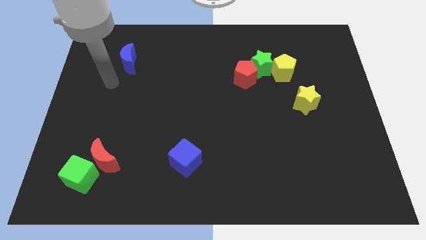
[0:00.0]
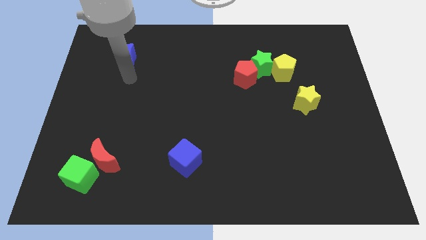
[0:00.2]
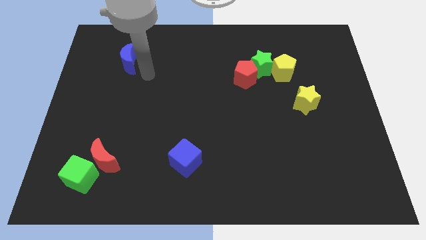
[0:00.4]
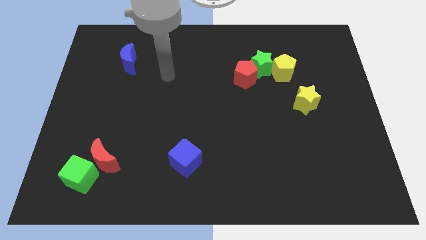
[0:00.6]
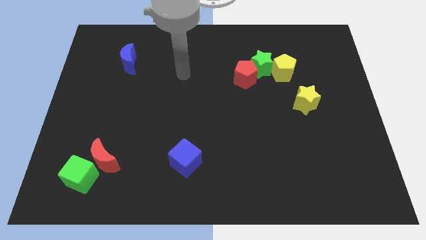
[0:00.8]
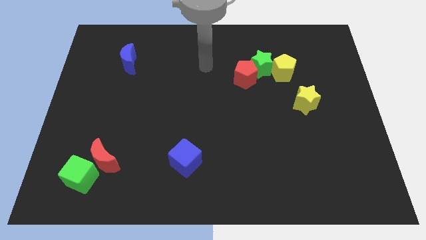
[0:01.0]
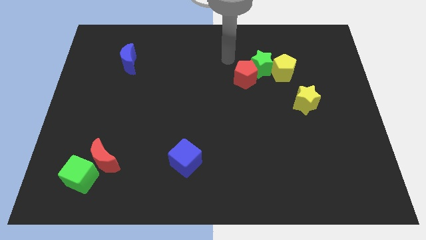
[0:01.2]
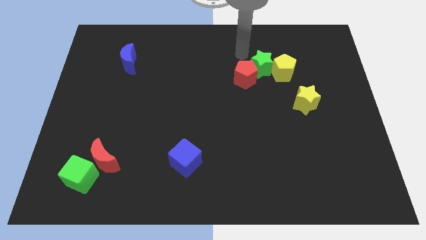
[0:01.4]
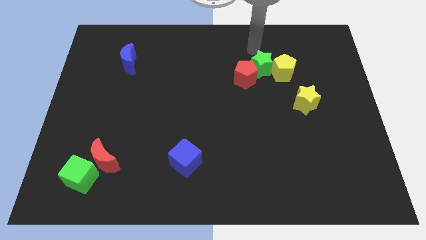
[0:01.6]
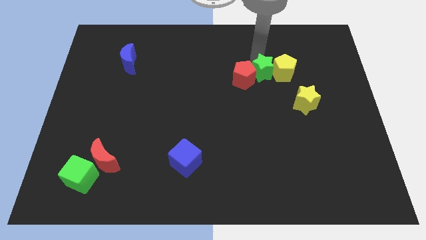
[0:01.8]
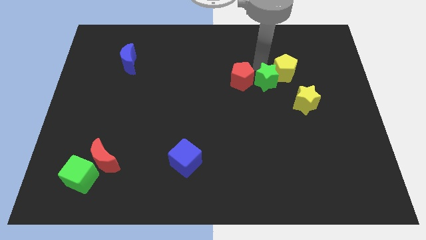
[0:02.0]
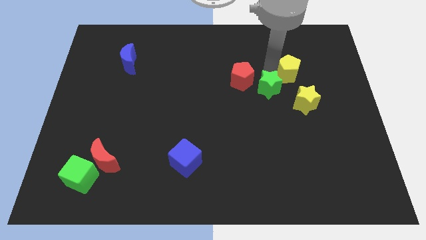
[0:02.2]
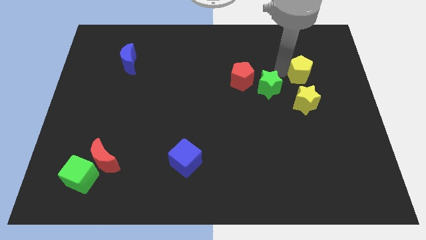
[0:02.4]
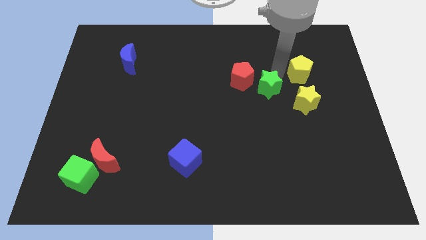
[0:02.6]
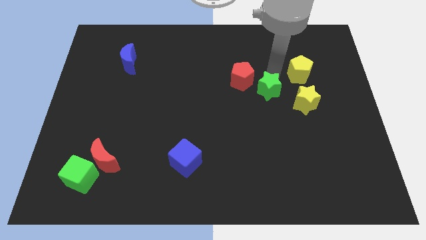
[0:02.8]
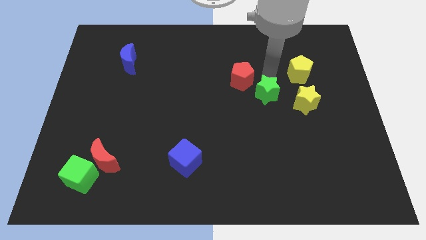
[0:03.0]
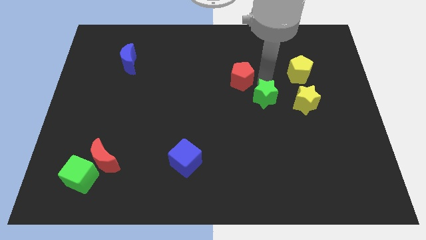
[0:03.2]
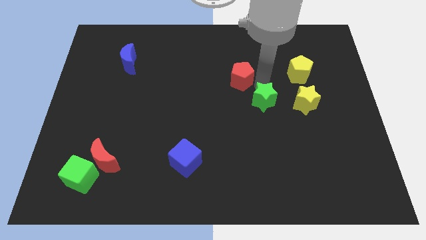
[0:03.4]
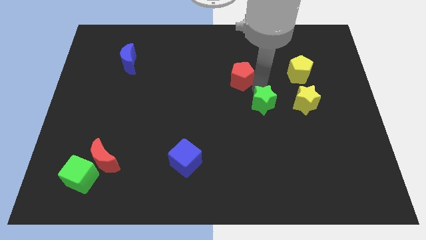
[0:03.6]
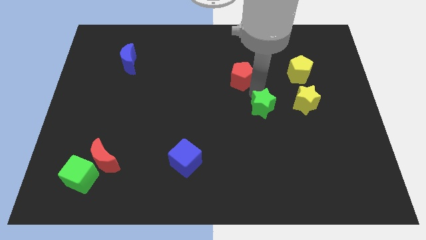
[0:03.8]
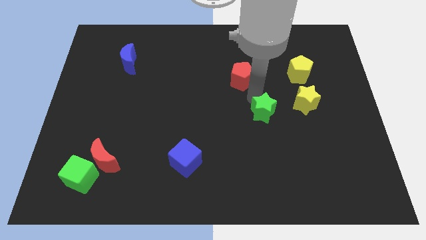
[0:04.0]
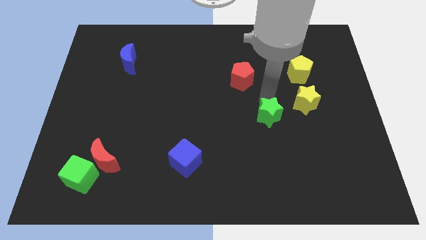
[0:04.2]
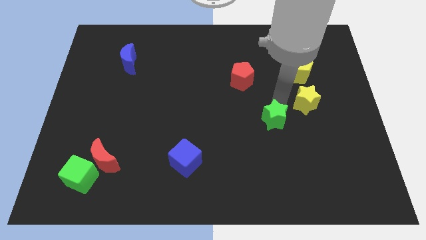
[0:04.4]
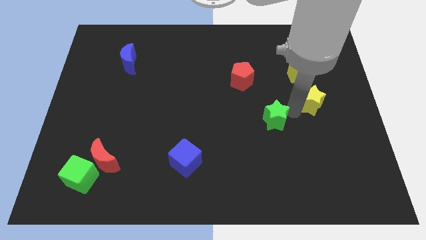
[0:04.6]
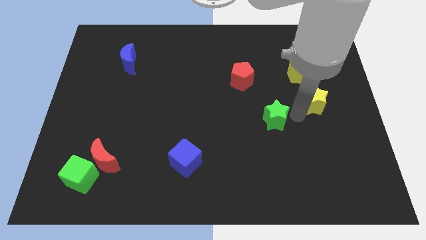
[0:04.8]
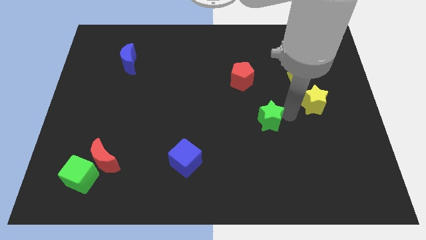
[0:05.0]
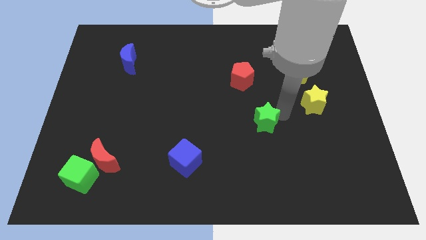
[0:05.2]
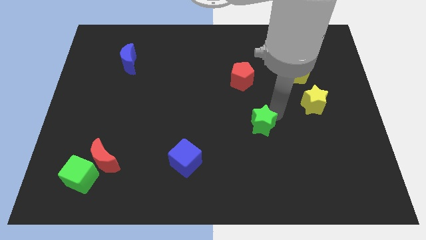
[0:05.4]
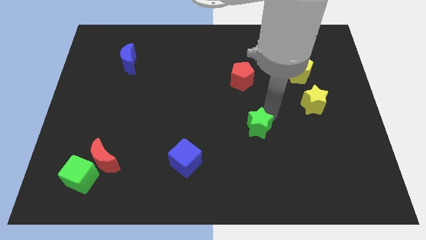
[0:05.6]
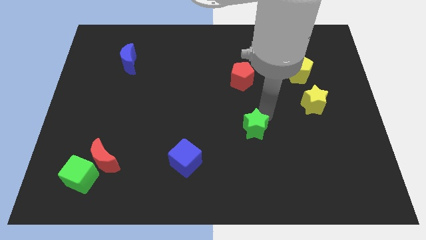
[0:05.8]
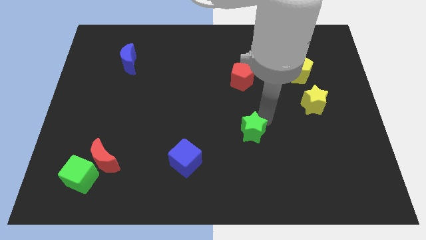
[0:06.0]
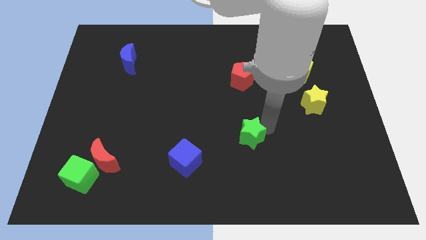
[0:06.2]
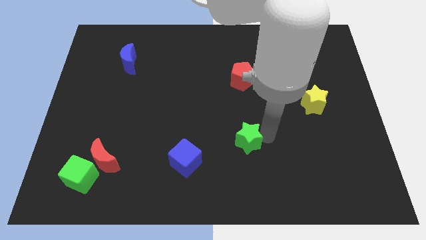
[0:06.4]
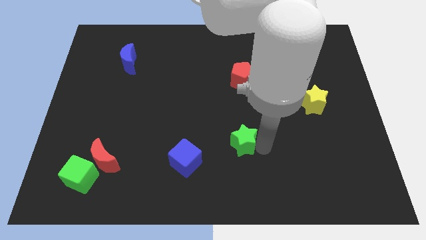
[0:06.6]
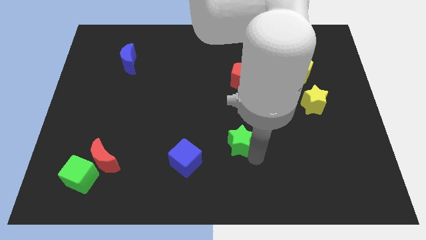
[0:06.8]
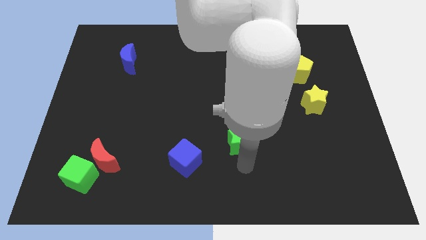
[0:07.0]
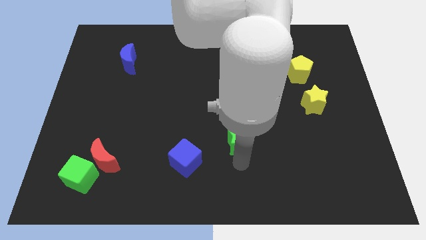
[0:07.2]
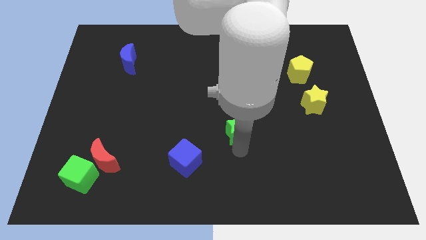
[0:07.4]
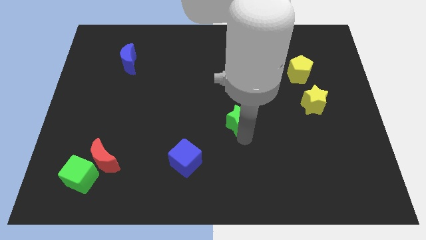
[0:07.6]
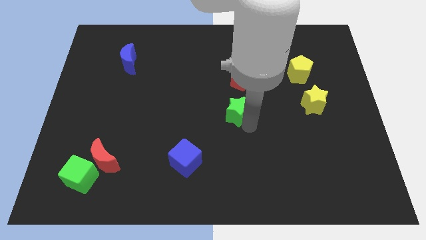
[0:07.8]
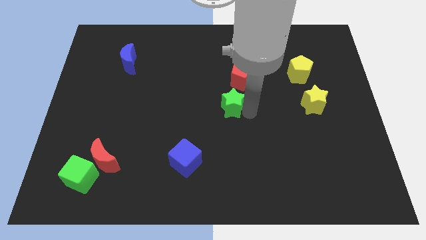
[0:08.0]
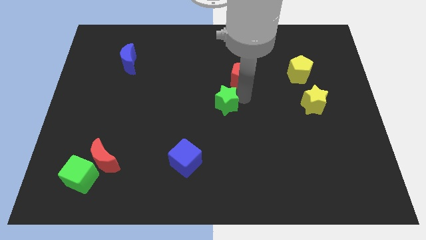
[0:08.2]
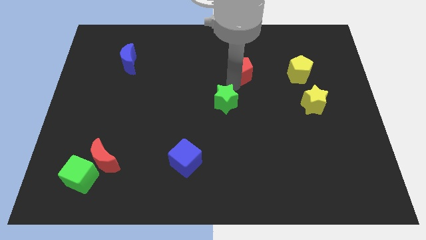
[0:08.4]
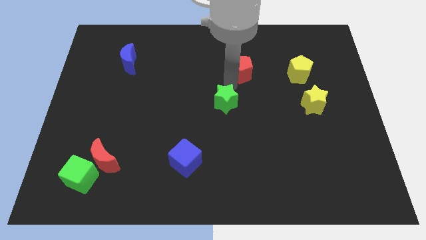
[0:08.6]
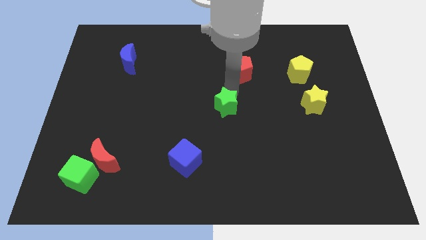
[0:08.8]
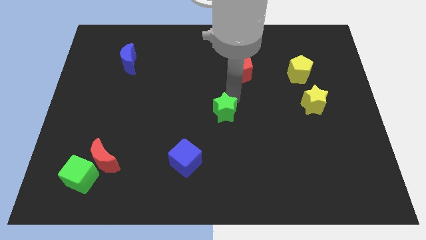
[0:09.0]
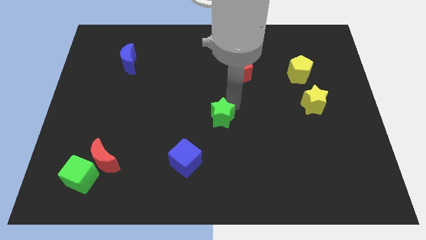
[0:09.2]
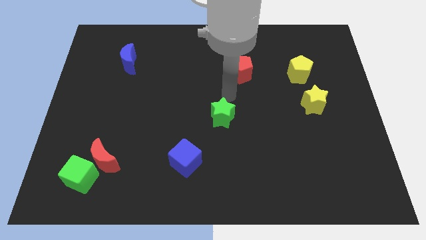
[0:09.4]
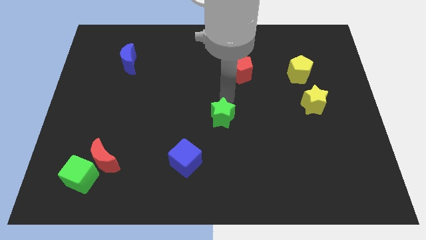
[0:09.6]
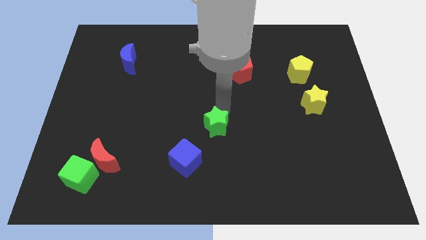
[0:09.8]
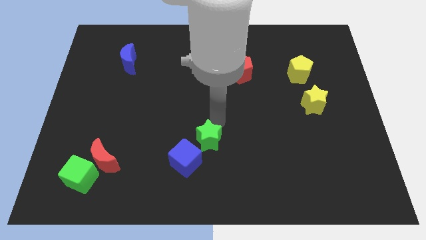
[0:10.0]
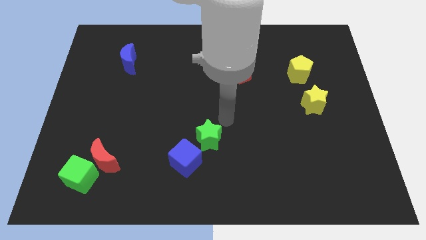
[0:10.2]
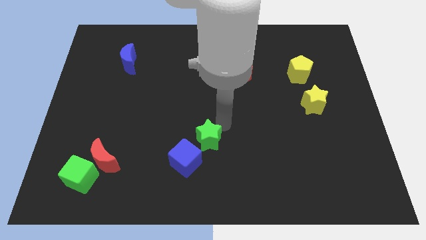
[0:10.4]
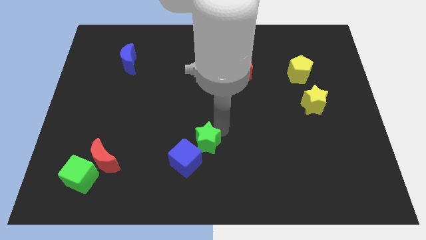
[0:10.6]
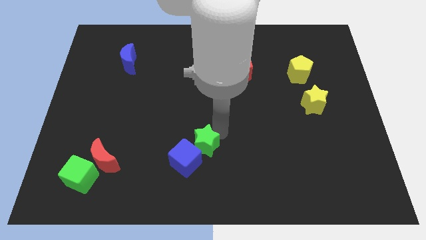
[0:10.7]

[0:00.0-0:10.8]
put the green star to the blue cube

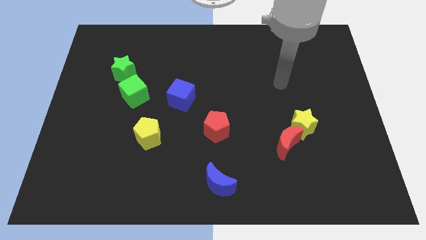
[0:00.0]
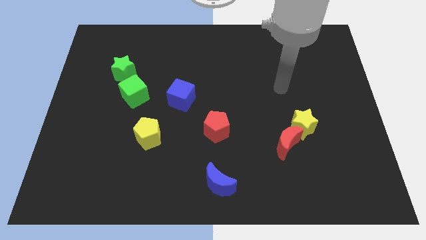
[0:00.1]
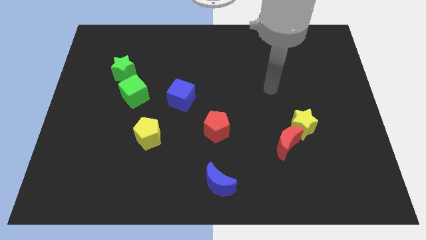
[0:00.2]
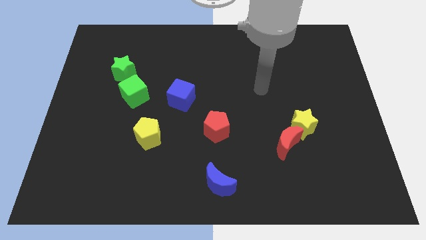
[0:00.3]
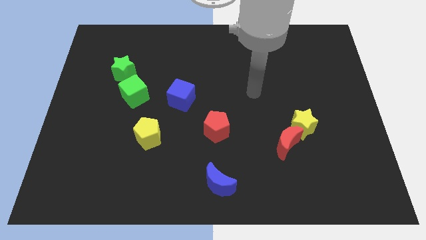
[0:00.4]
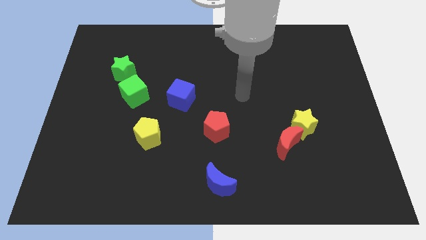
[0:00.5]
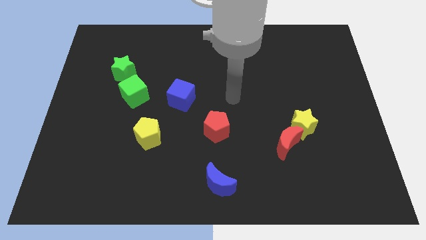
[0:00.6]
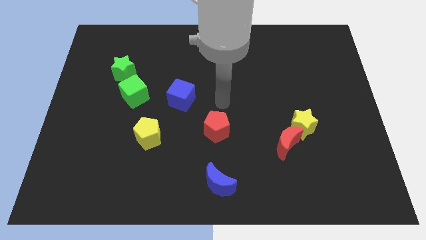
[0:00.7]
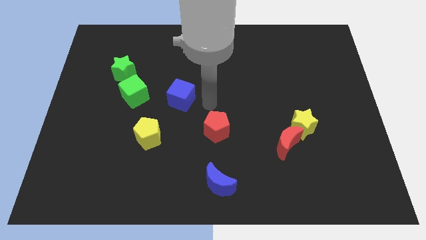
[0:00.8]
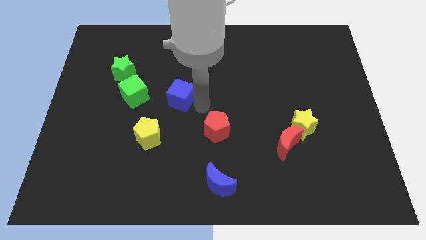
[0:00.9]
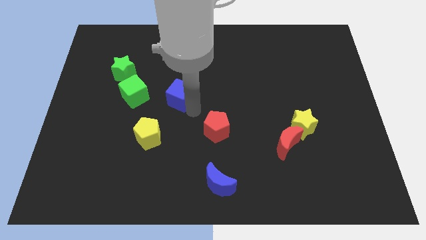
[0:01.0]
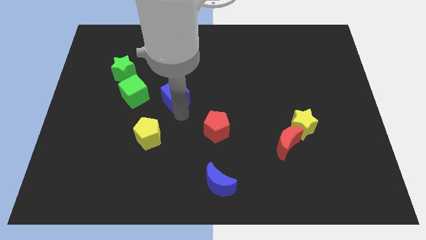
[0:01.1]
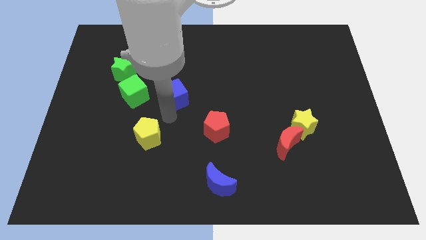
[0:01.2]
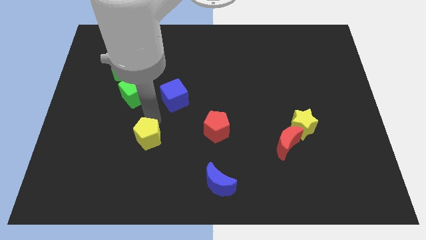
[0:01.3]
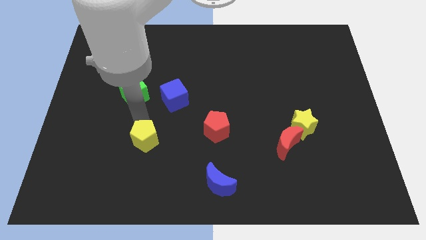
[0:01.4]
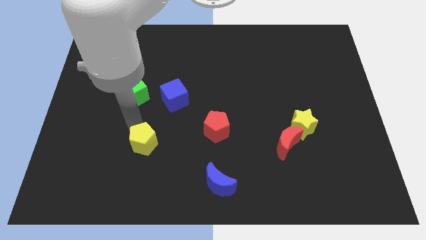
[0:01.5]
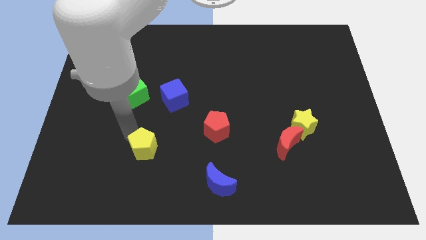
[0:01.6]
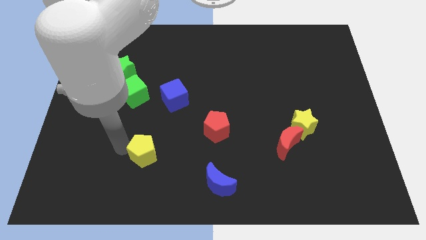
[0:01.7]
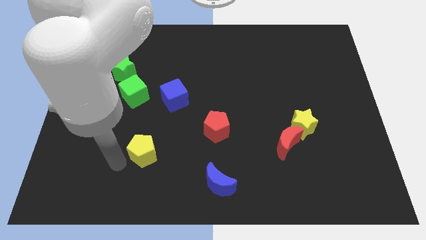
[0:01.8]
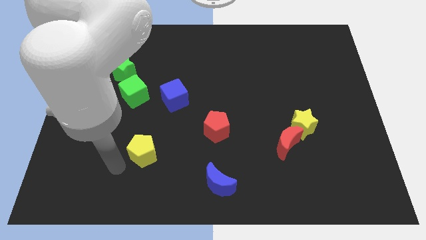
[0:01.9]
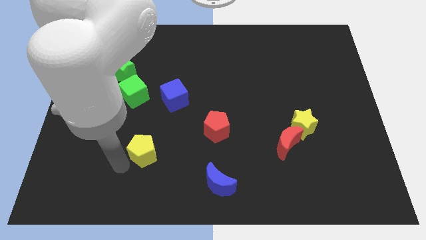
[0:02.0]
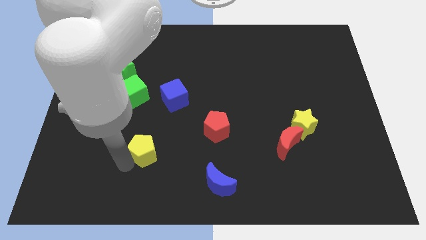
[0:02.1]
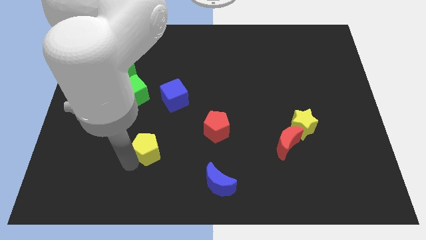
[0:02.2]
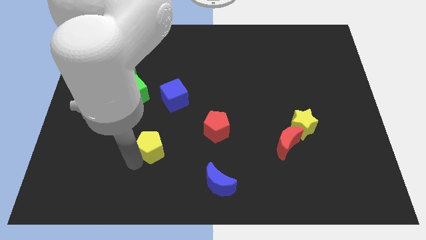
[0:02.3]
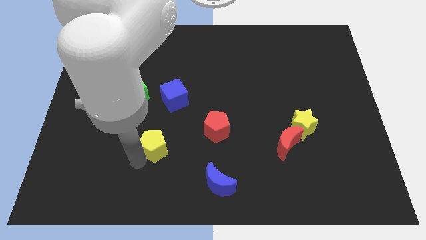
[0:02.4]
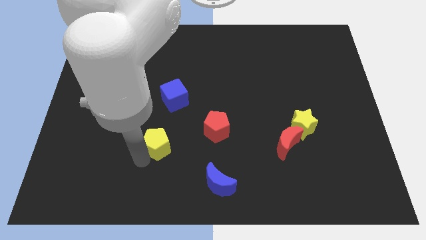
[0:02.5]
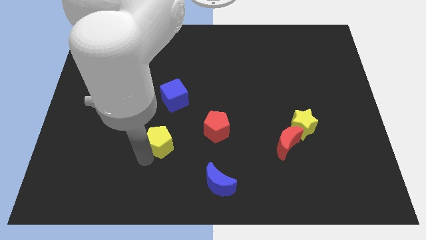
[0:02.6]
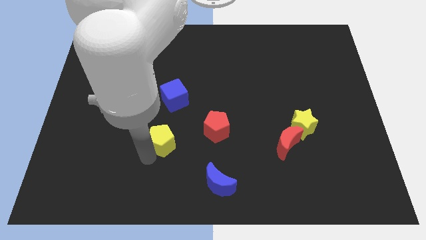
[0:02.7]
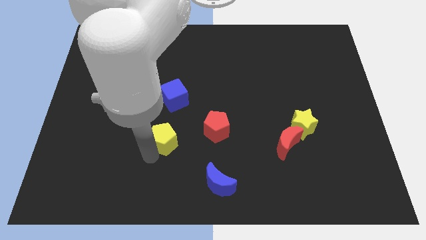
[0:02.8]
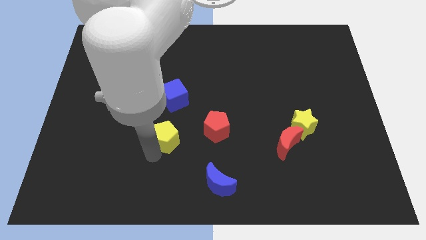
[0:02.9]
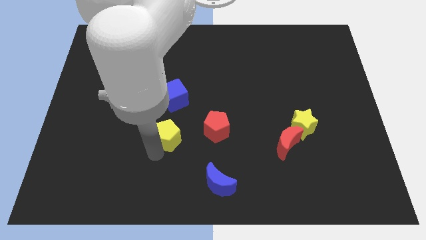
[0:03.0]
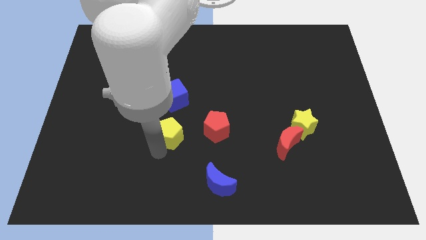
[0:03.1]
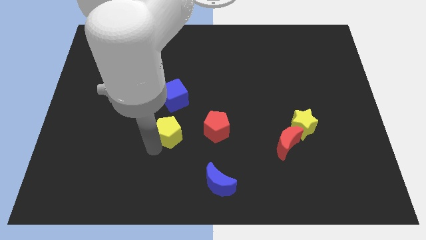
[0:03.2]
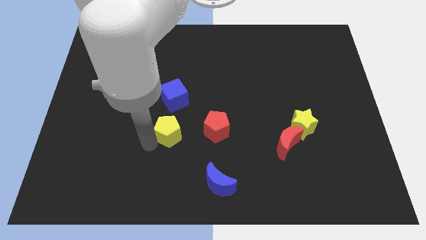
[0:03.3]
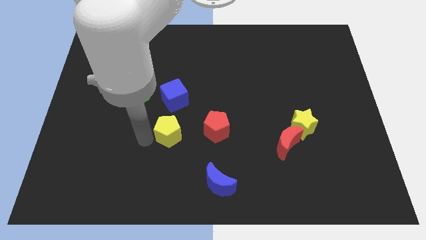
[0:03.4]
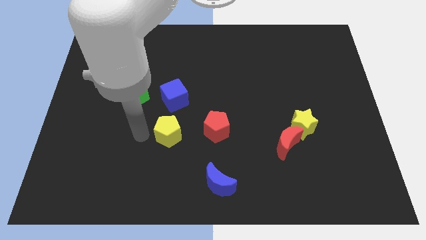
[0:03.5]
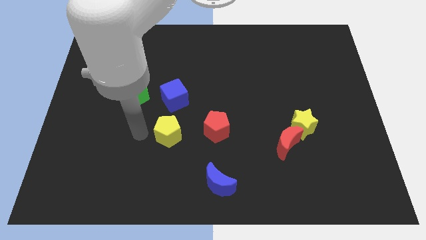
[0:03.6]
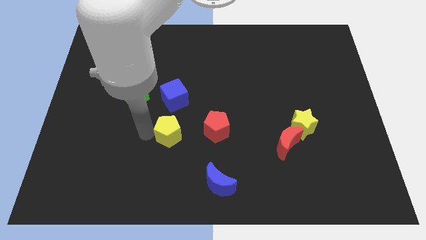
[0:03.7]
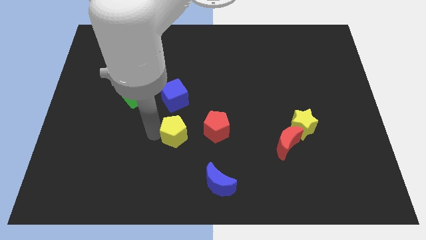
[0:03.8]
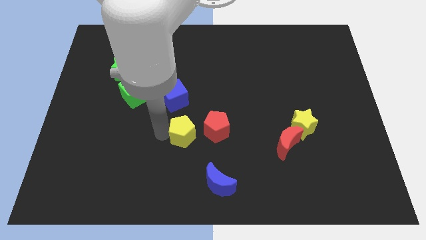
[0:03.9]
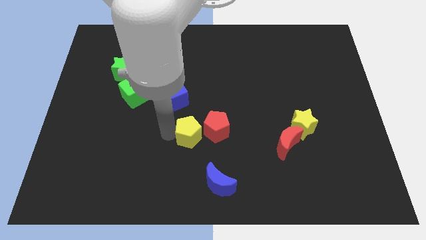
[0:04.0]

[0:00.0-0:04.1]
slide the yellow pentagon close to the red pentagon
